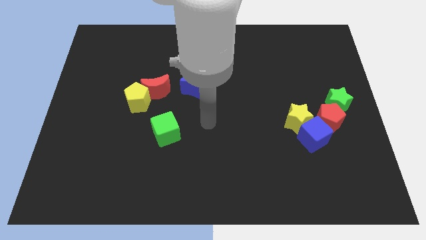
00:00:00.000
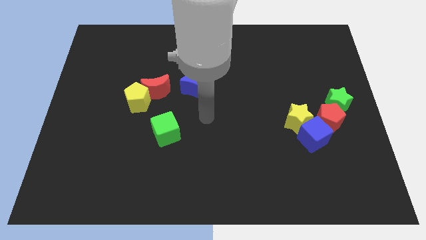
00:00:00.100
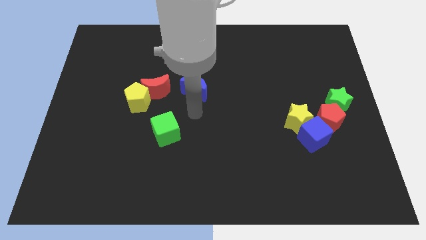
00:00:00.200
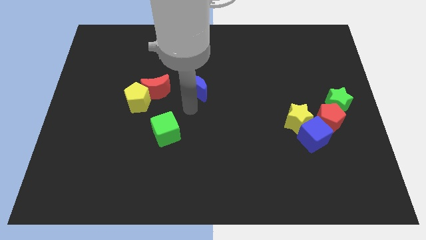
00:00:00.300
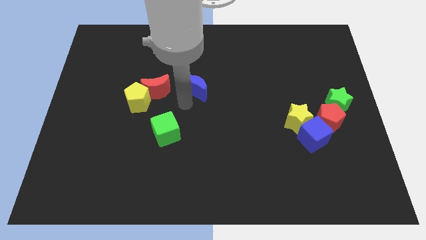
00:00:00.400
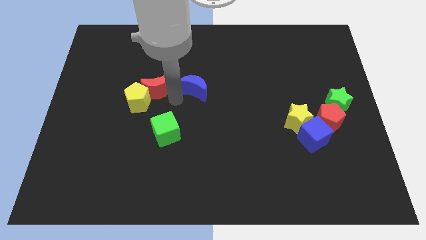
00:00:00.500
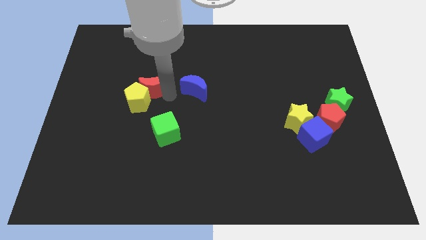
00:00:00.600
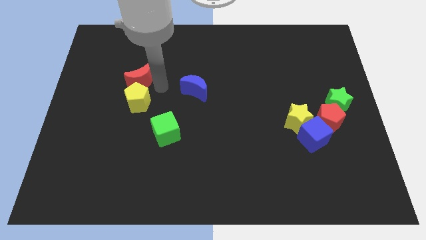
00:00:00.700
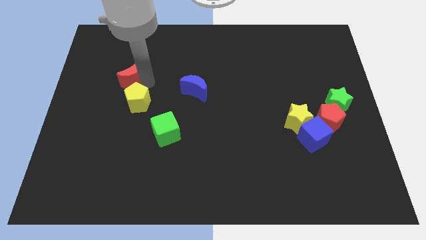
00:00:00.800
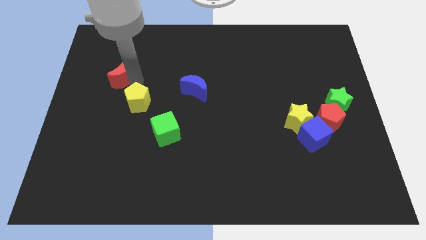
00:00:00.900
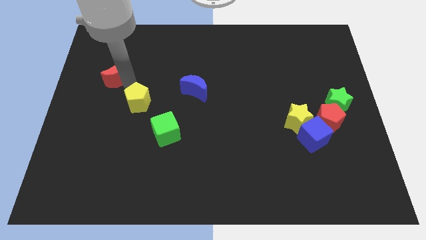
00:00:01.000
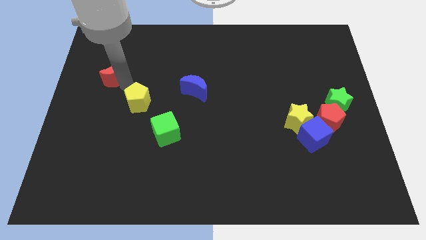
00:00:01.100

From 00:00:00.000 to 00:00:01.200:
pull the yellow pentagon apart from the red moon

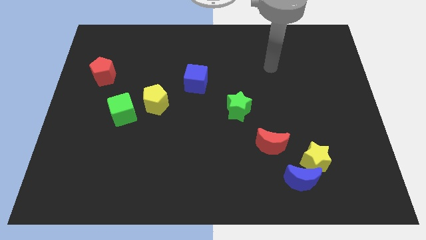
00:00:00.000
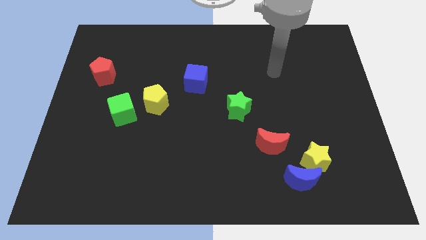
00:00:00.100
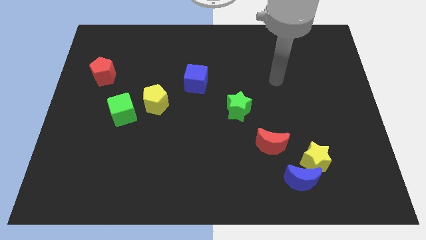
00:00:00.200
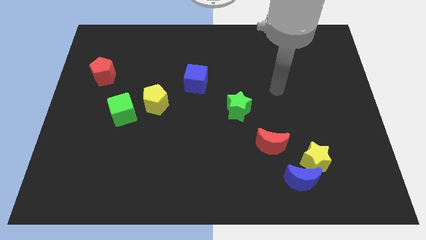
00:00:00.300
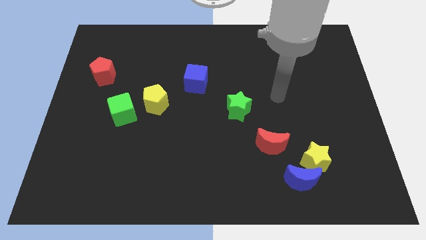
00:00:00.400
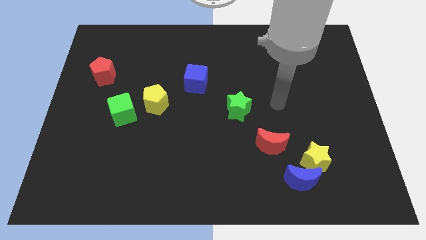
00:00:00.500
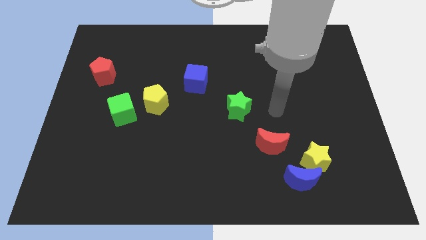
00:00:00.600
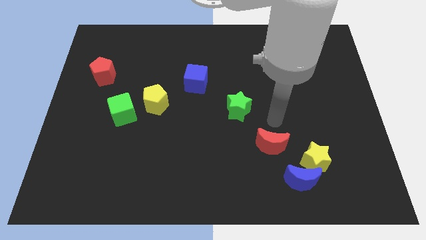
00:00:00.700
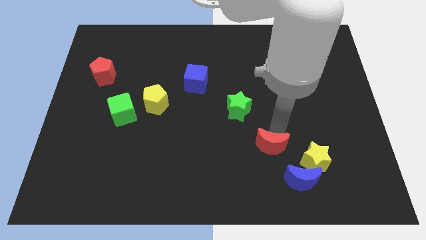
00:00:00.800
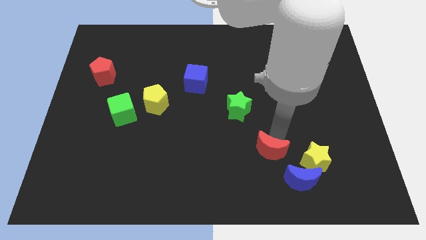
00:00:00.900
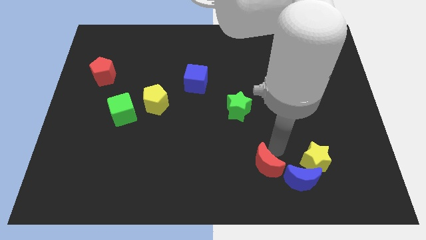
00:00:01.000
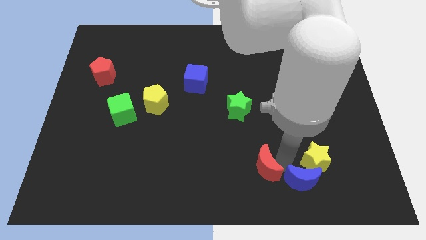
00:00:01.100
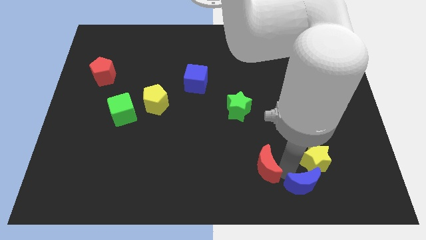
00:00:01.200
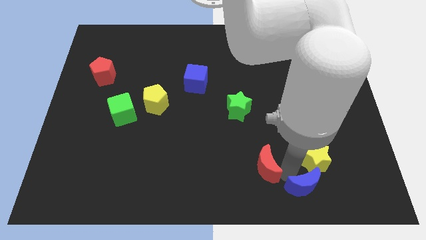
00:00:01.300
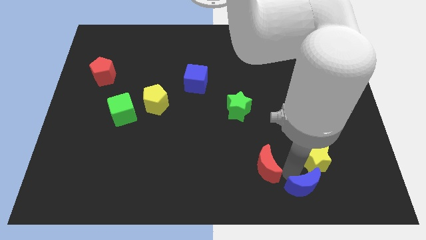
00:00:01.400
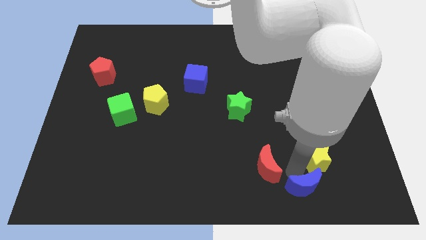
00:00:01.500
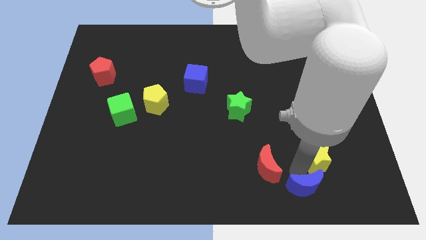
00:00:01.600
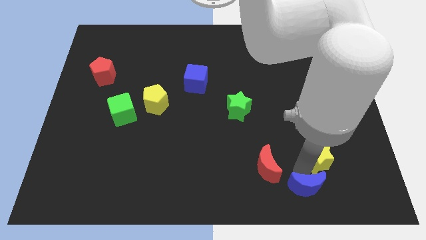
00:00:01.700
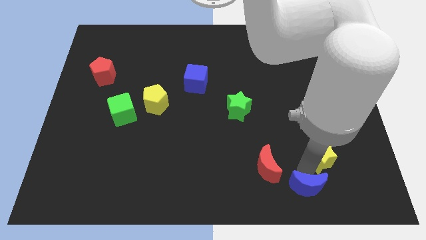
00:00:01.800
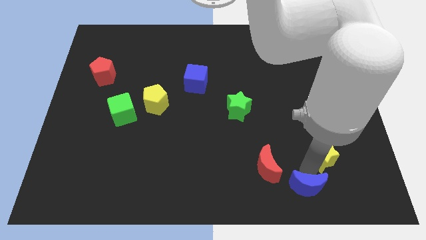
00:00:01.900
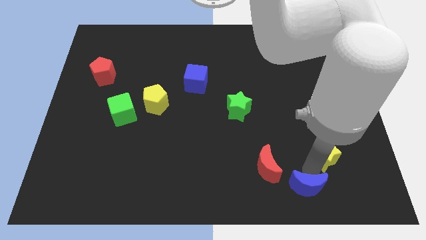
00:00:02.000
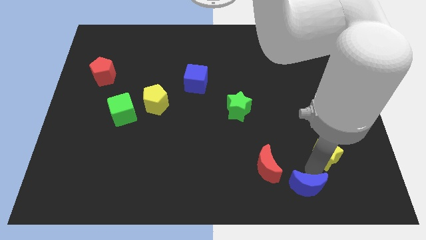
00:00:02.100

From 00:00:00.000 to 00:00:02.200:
pull the yellow star apart from the blue moon and red moon

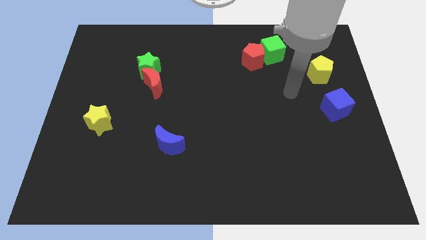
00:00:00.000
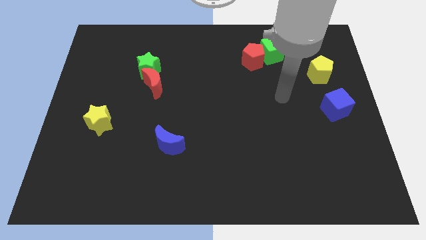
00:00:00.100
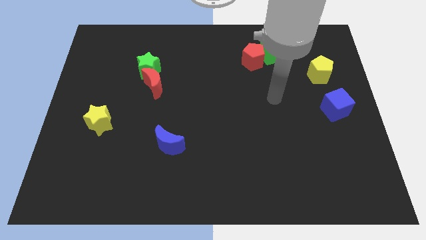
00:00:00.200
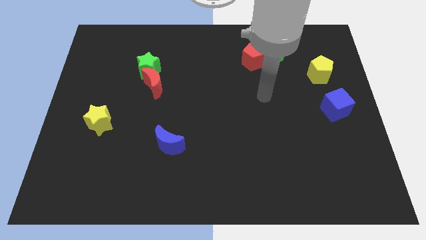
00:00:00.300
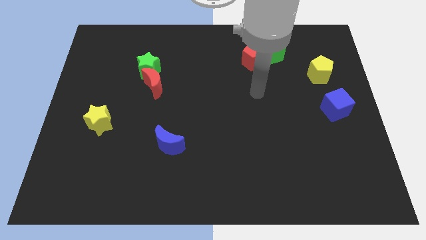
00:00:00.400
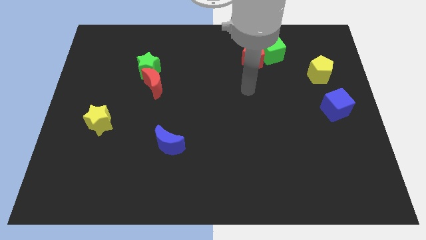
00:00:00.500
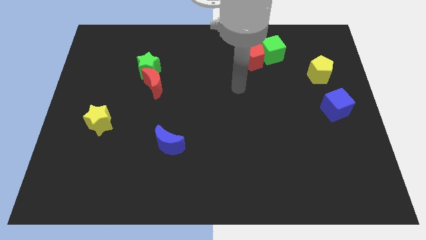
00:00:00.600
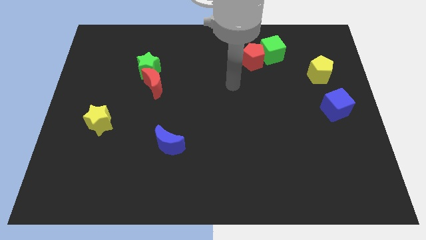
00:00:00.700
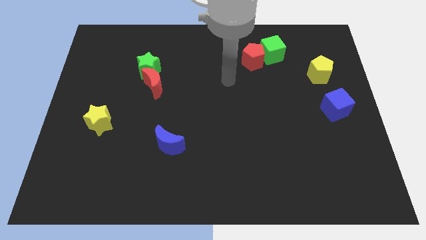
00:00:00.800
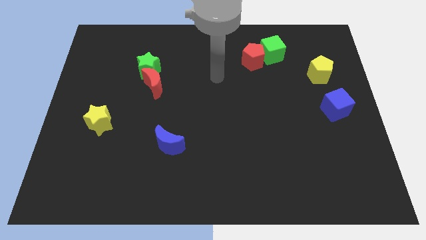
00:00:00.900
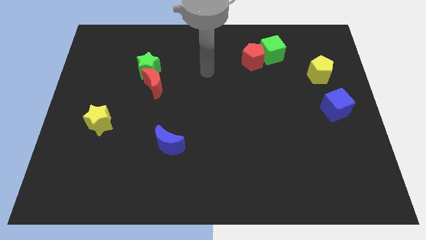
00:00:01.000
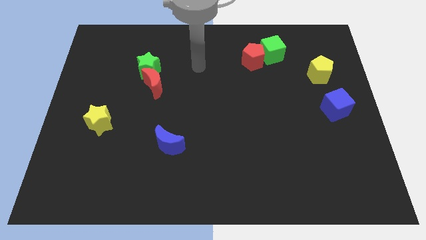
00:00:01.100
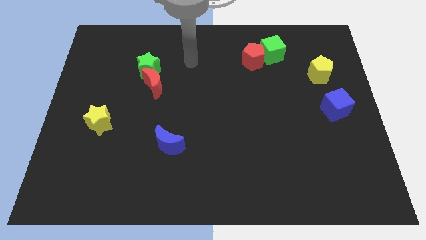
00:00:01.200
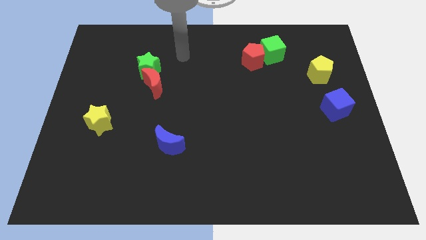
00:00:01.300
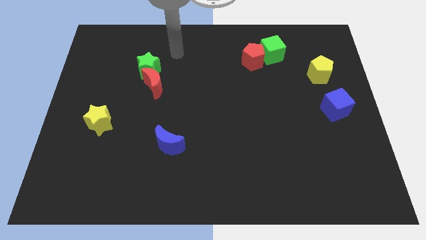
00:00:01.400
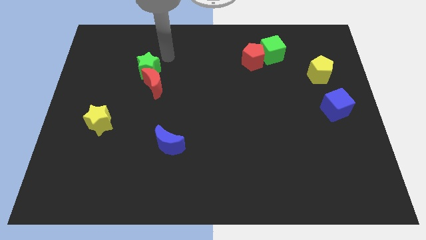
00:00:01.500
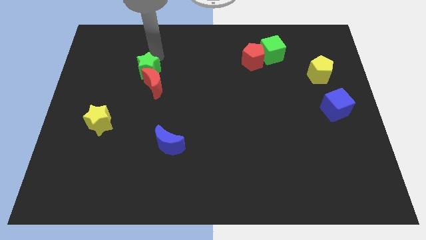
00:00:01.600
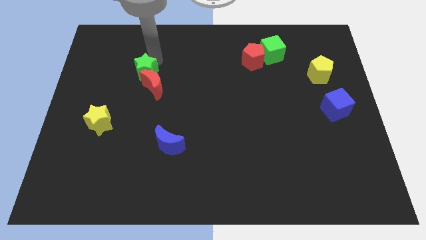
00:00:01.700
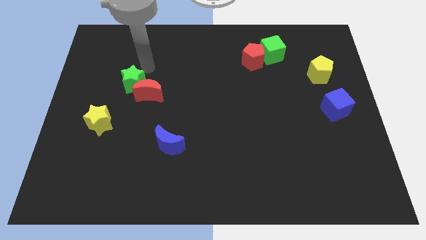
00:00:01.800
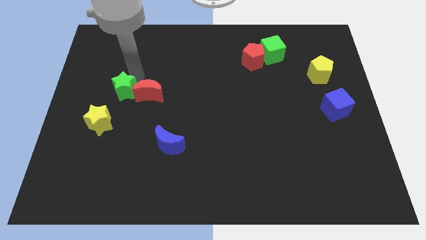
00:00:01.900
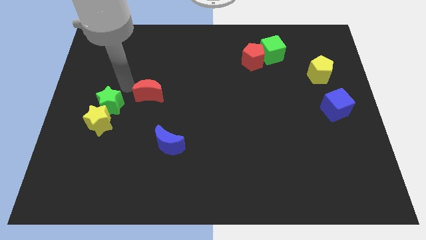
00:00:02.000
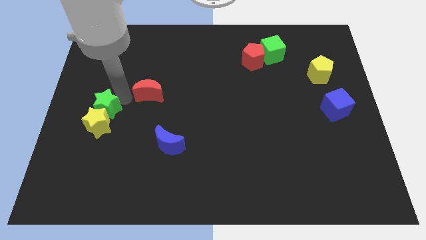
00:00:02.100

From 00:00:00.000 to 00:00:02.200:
separate the red moon from the green star

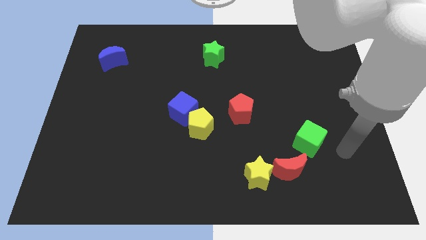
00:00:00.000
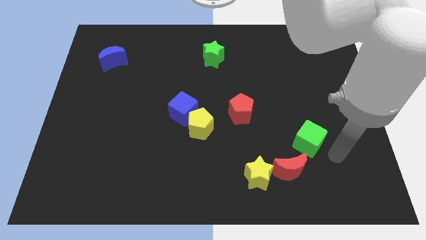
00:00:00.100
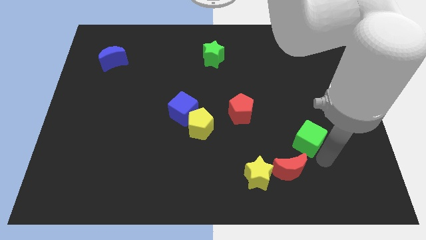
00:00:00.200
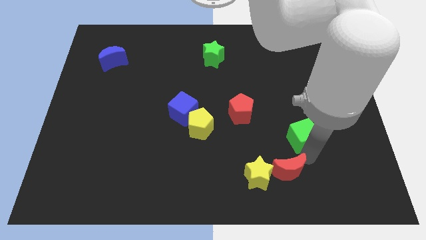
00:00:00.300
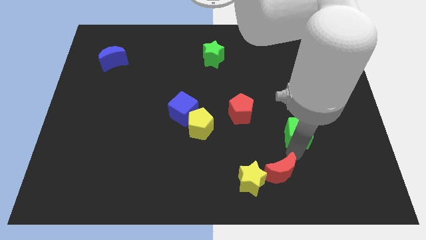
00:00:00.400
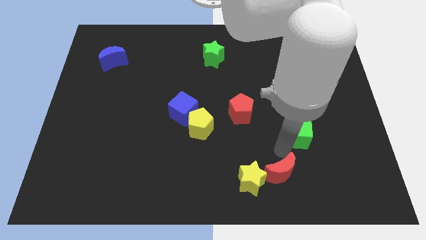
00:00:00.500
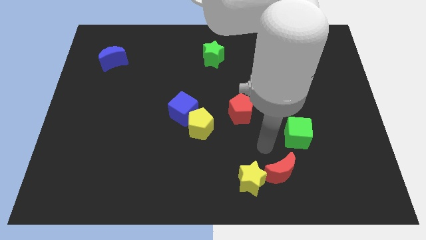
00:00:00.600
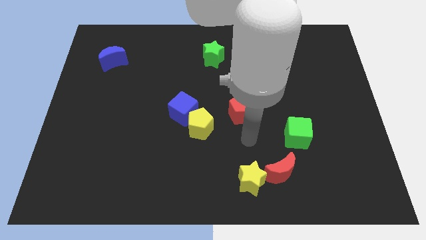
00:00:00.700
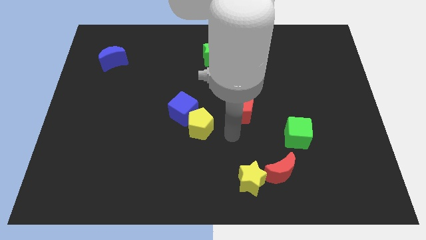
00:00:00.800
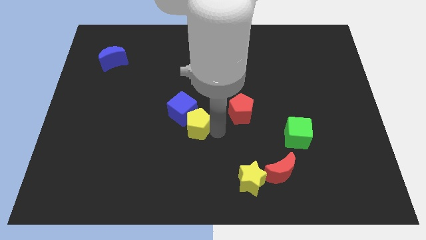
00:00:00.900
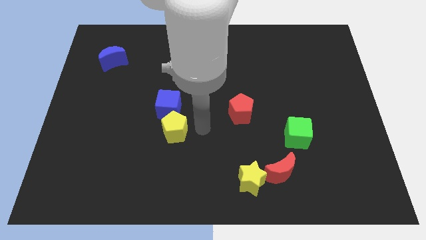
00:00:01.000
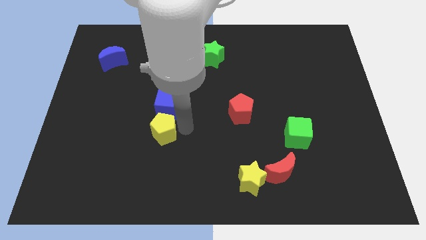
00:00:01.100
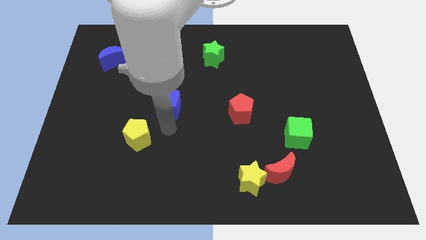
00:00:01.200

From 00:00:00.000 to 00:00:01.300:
move the blue cube away from the yellow pentagon

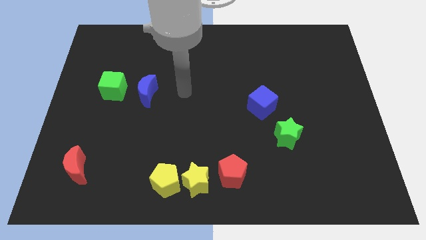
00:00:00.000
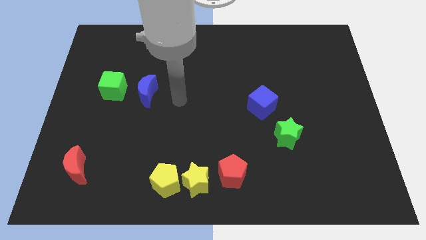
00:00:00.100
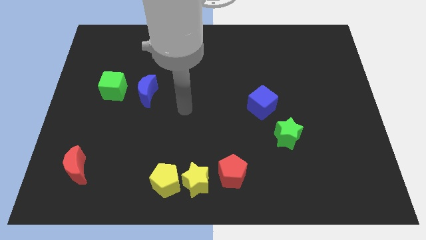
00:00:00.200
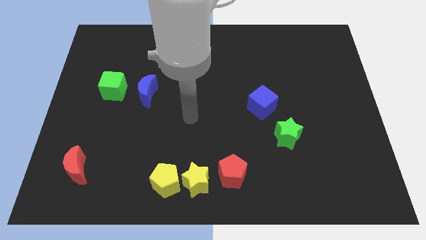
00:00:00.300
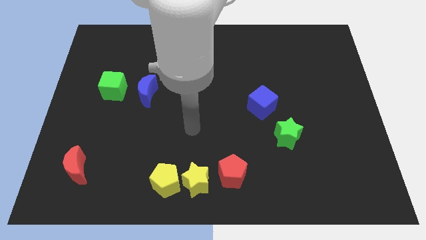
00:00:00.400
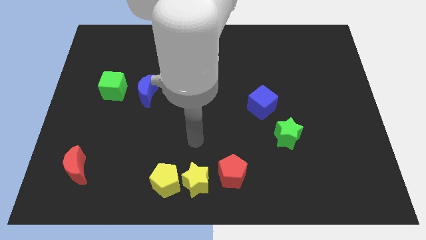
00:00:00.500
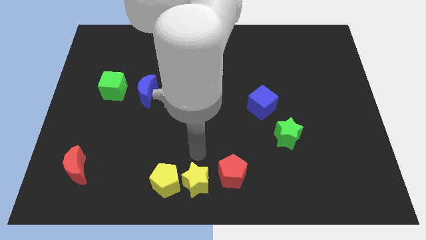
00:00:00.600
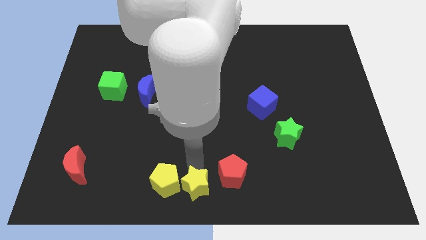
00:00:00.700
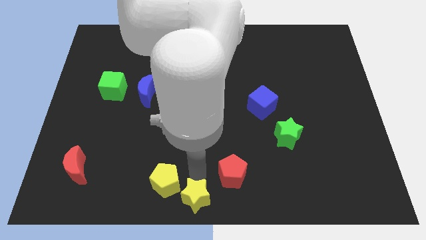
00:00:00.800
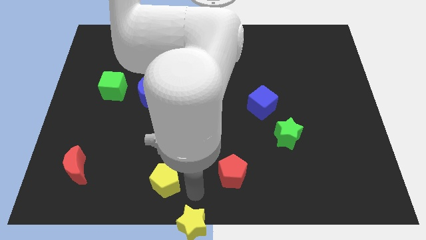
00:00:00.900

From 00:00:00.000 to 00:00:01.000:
move the yellow pentagon away from the yellow star

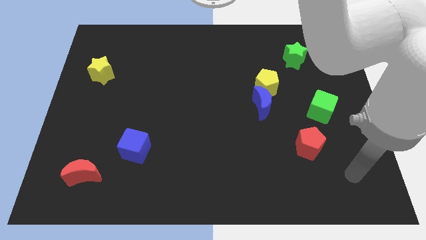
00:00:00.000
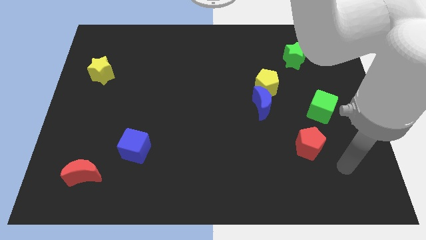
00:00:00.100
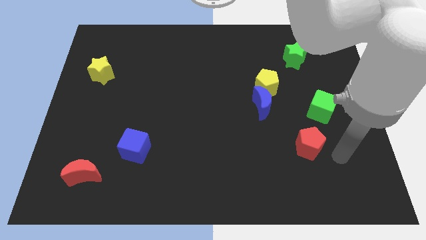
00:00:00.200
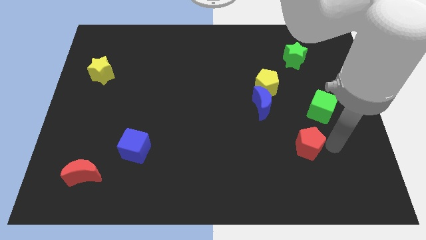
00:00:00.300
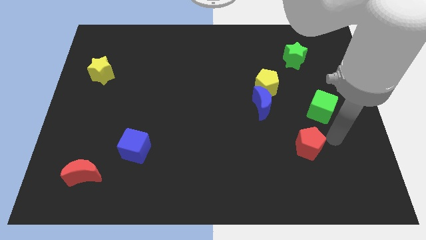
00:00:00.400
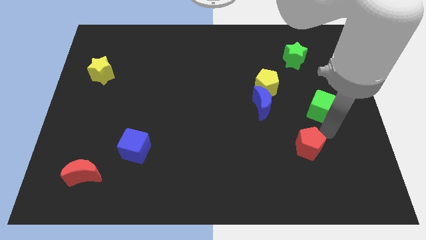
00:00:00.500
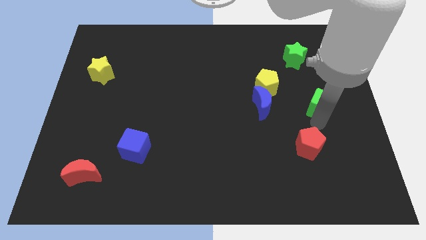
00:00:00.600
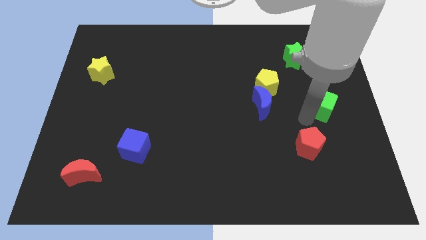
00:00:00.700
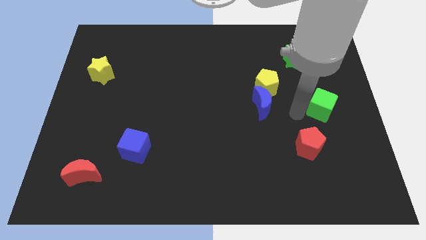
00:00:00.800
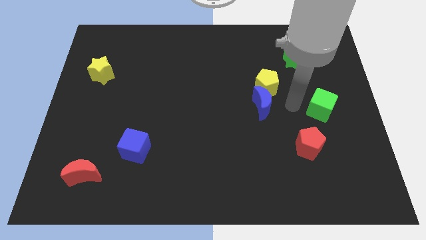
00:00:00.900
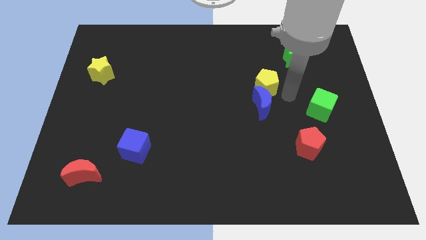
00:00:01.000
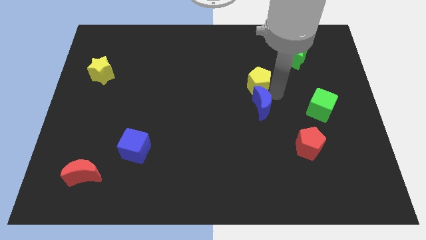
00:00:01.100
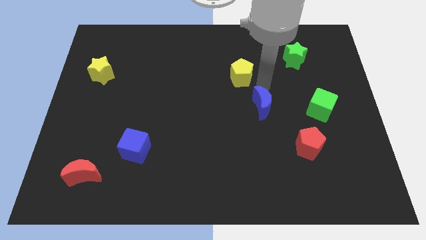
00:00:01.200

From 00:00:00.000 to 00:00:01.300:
separate the blue moon from the yellow pentagon
